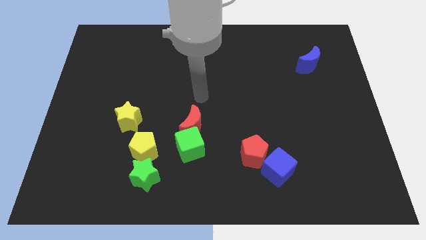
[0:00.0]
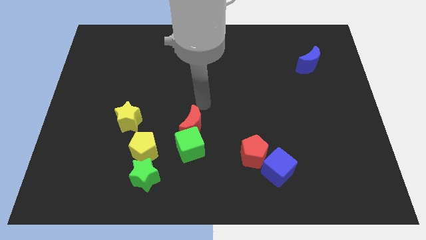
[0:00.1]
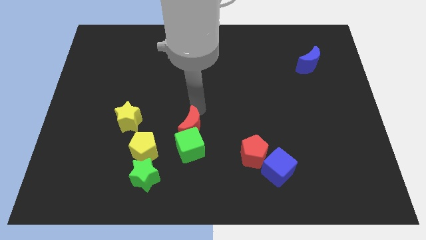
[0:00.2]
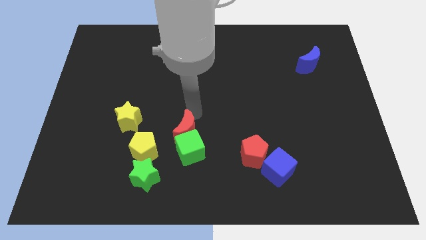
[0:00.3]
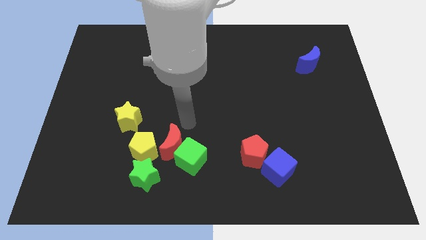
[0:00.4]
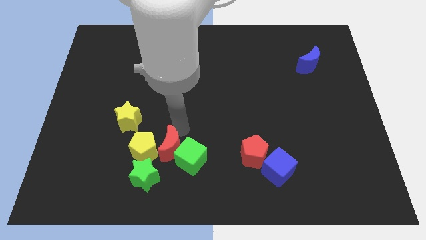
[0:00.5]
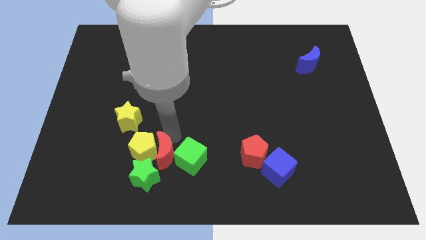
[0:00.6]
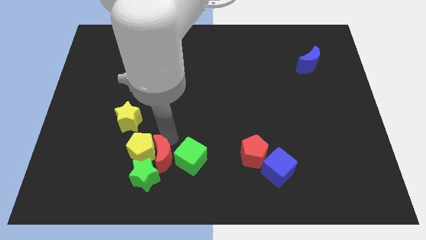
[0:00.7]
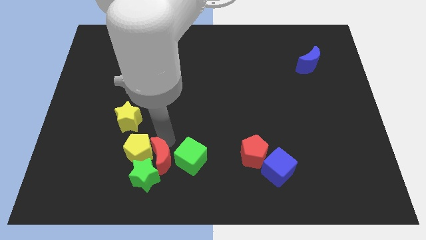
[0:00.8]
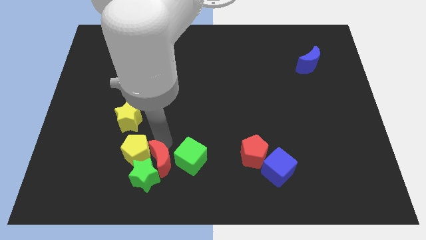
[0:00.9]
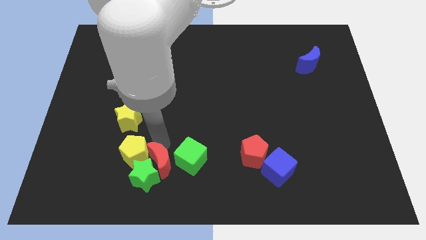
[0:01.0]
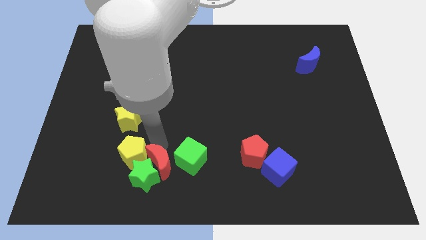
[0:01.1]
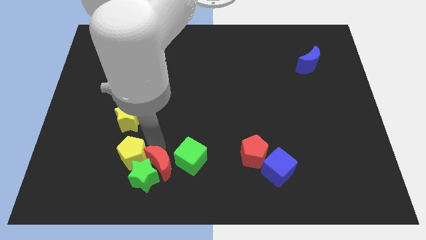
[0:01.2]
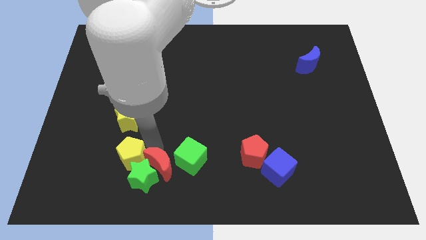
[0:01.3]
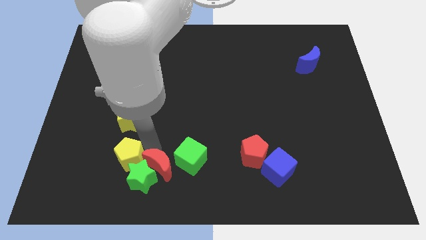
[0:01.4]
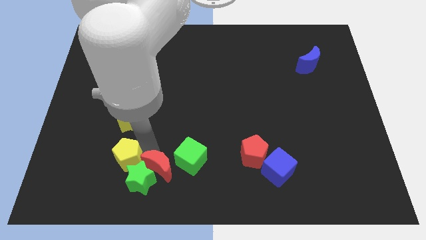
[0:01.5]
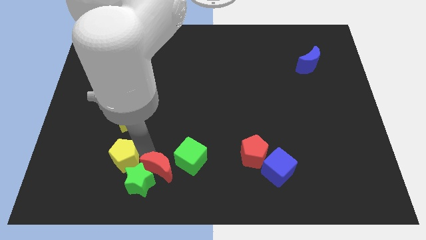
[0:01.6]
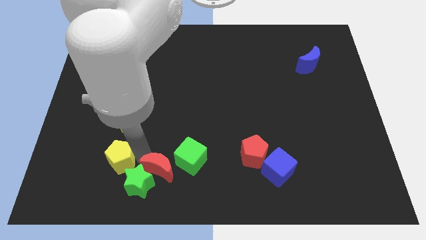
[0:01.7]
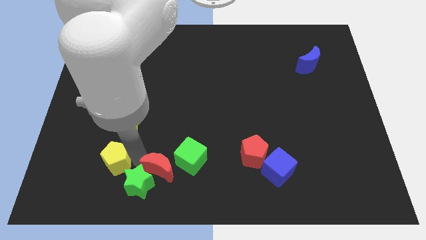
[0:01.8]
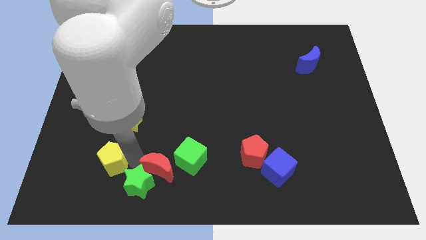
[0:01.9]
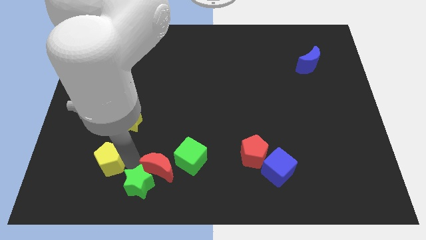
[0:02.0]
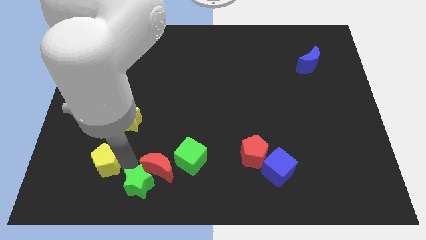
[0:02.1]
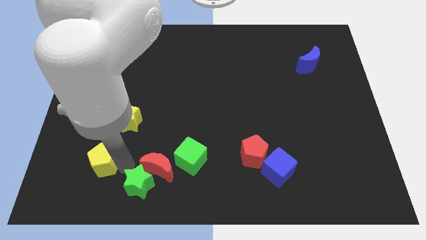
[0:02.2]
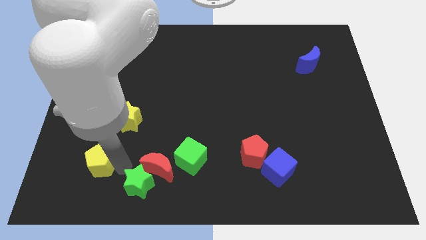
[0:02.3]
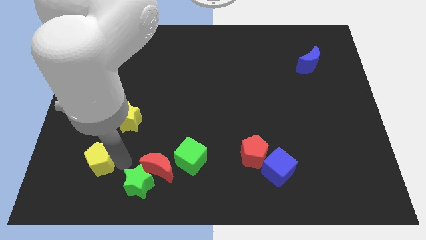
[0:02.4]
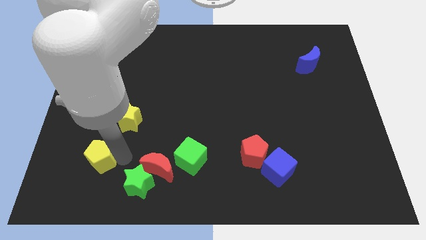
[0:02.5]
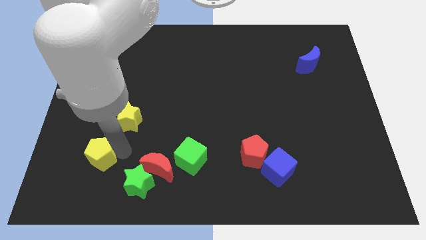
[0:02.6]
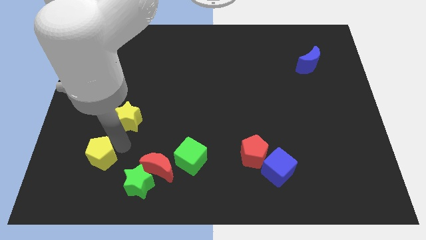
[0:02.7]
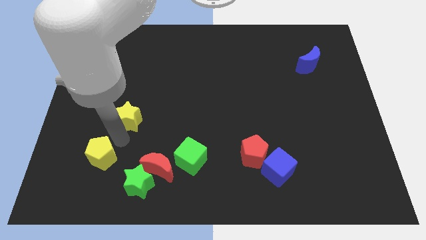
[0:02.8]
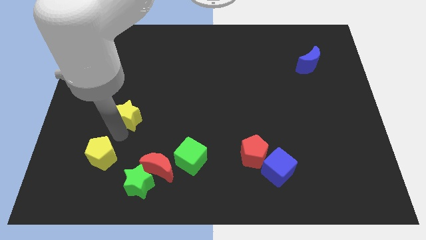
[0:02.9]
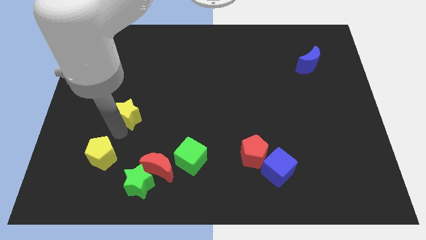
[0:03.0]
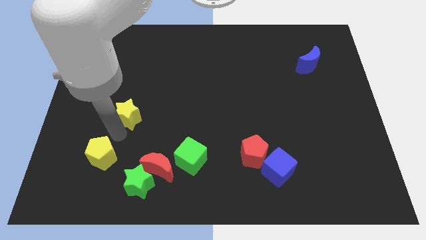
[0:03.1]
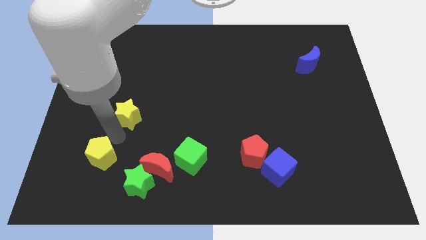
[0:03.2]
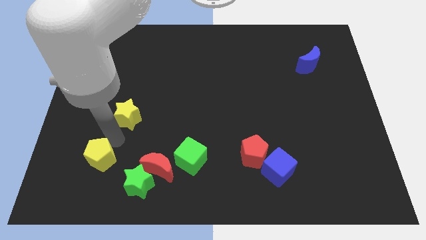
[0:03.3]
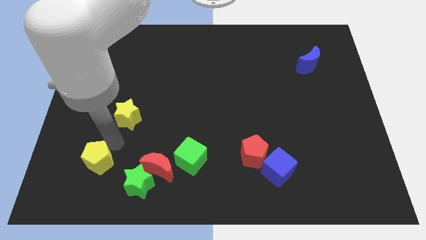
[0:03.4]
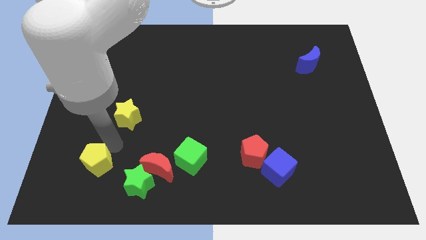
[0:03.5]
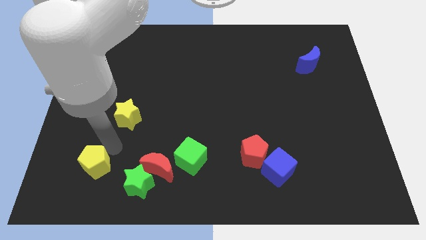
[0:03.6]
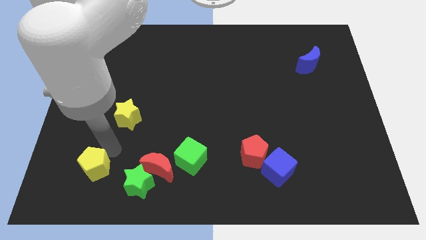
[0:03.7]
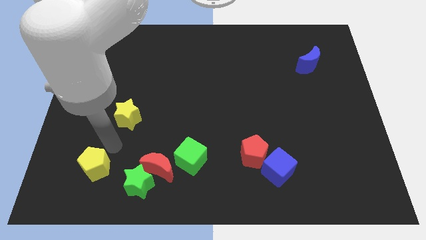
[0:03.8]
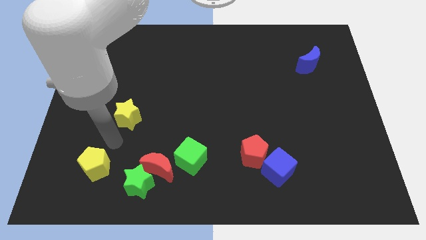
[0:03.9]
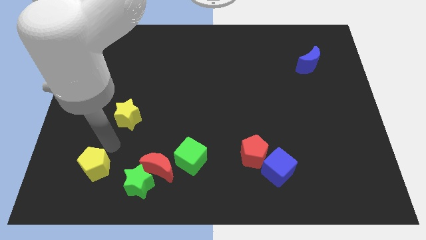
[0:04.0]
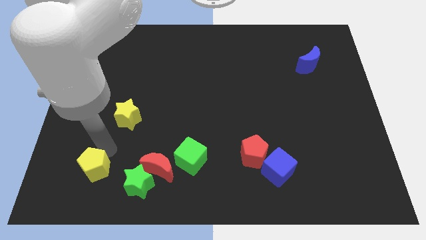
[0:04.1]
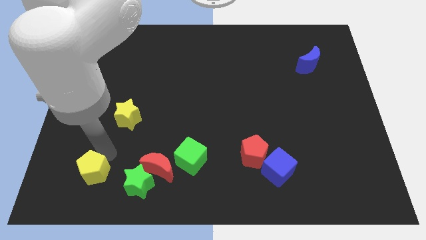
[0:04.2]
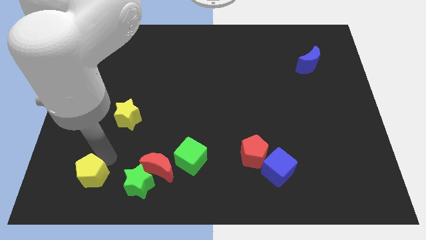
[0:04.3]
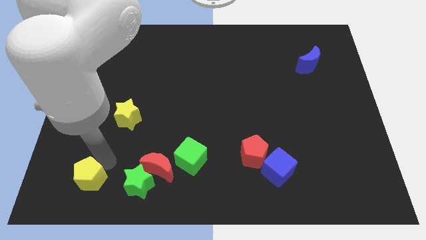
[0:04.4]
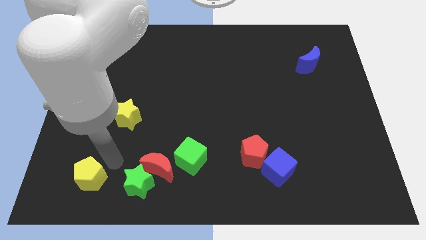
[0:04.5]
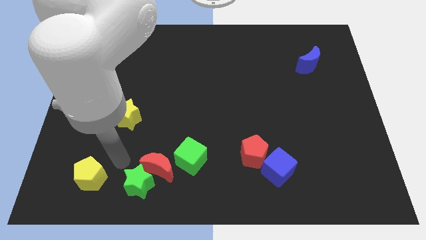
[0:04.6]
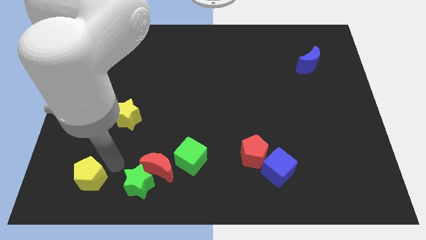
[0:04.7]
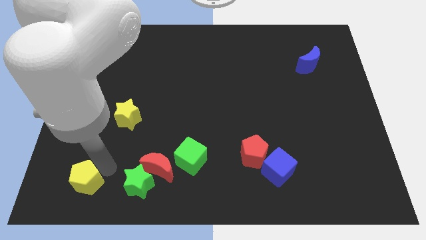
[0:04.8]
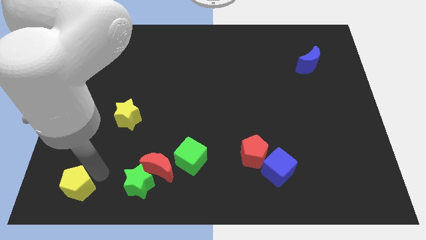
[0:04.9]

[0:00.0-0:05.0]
push the yellow pentagon to the bottom left
